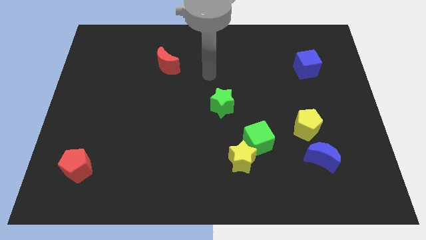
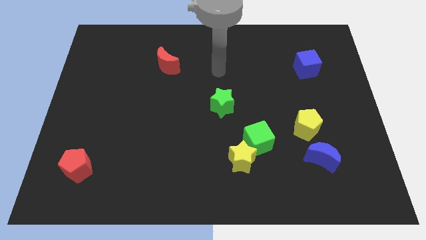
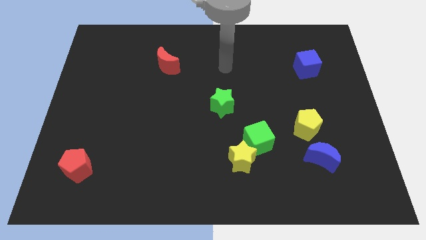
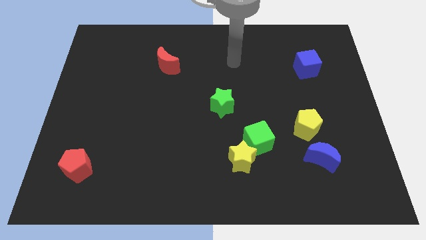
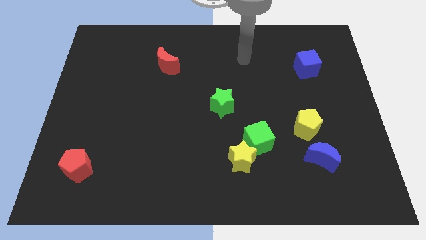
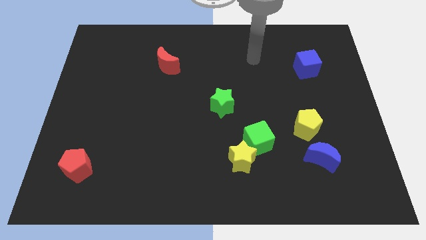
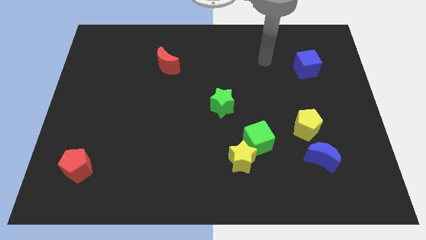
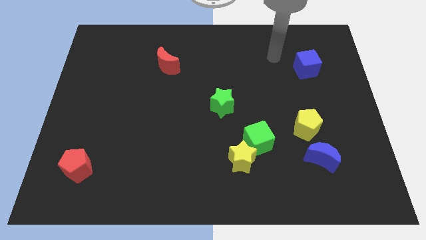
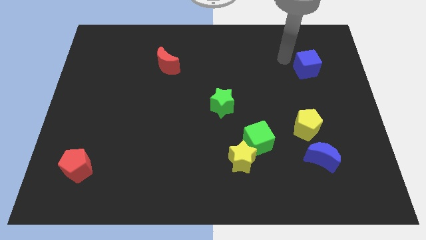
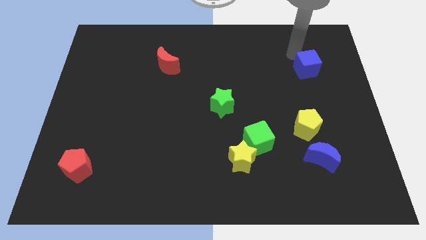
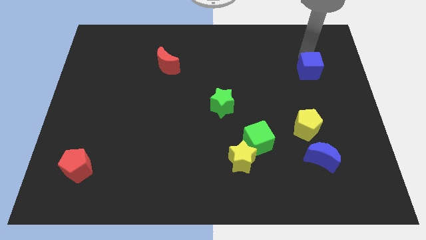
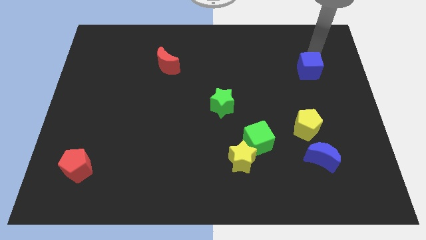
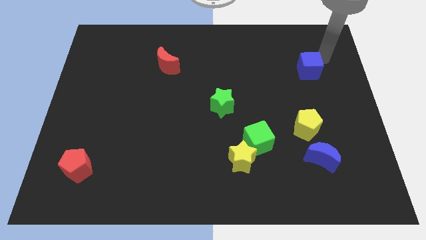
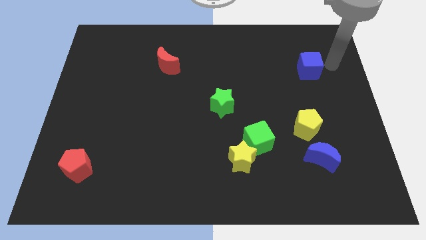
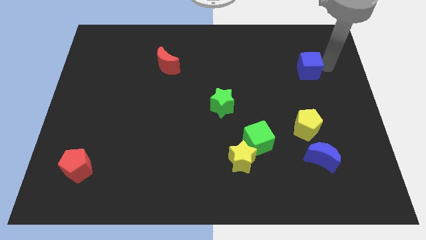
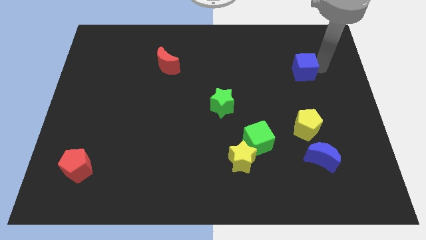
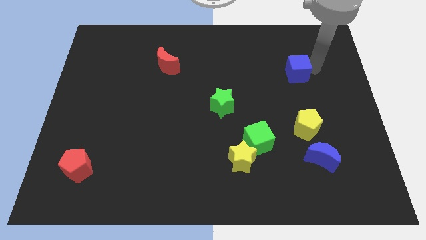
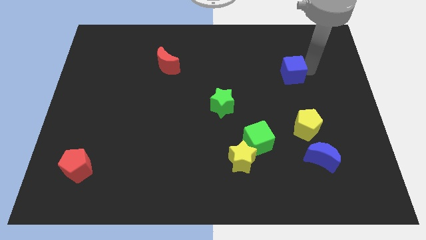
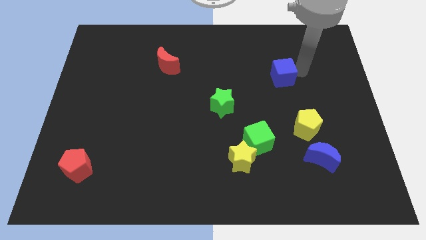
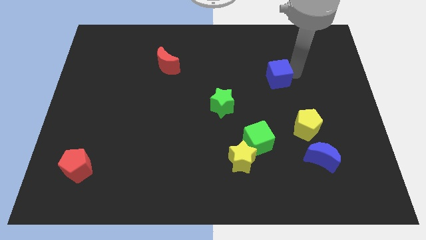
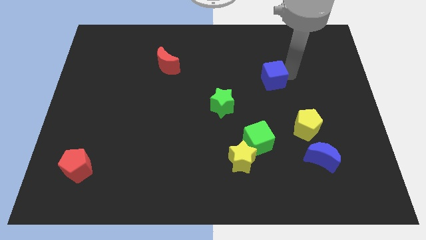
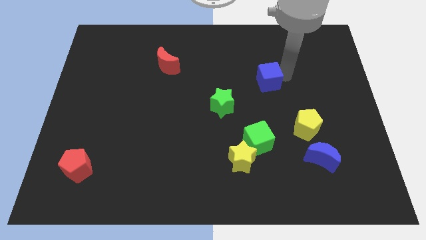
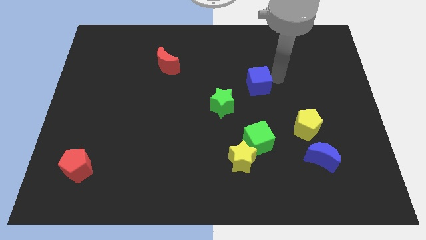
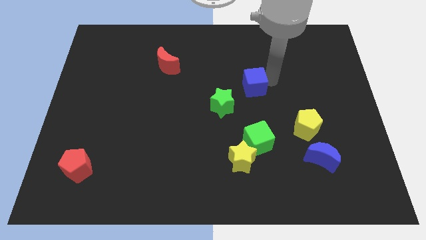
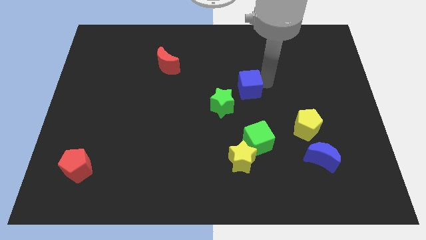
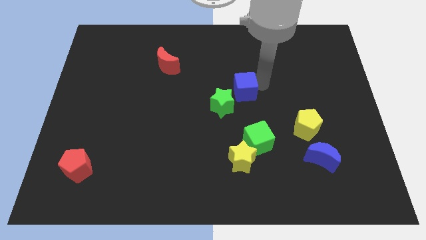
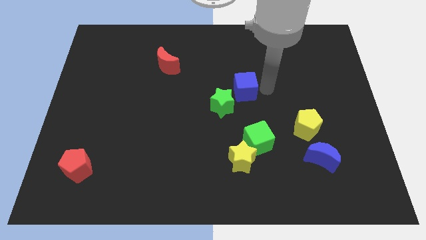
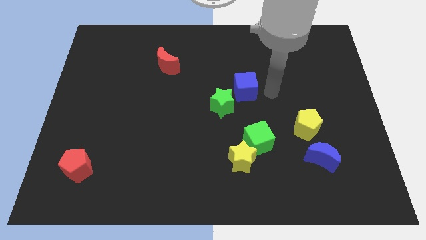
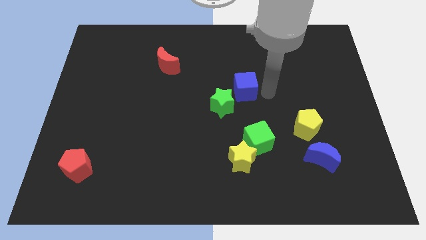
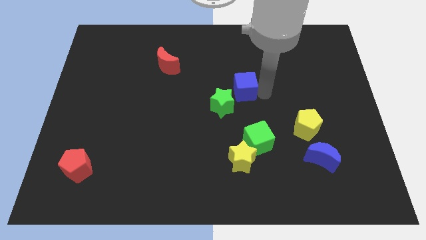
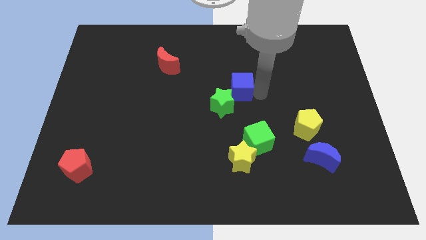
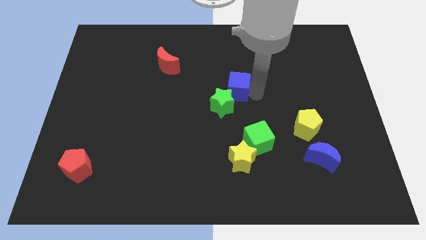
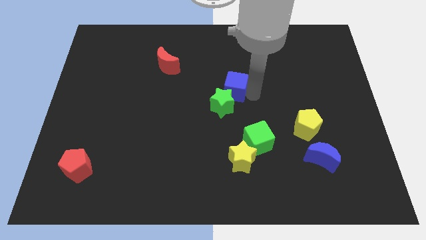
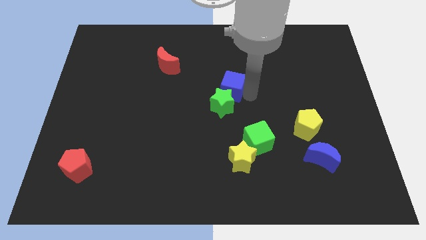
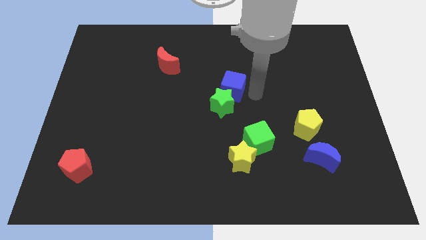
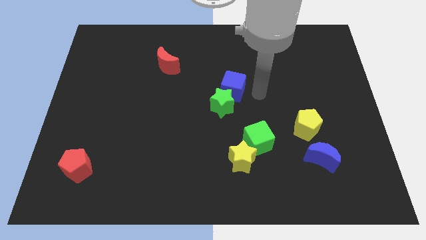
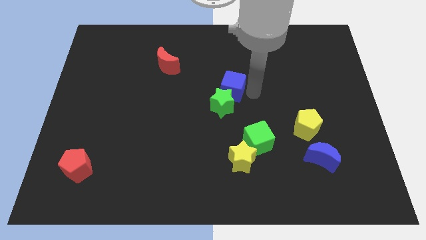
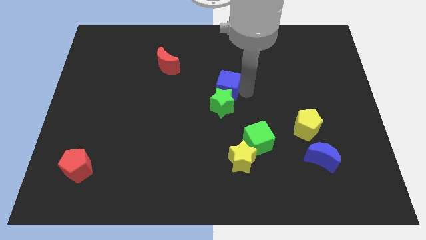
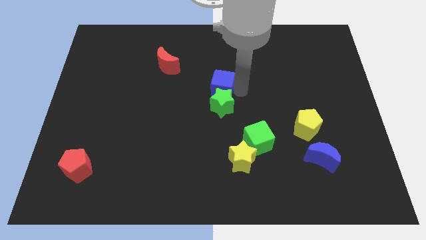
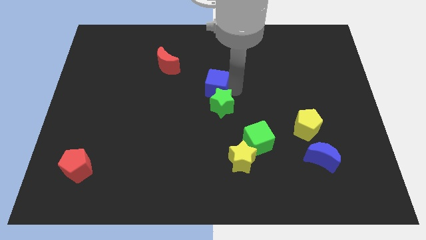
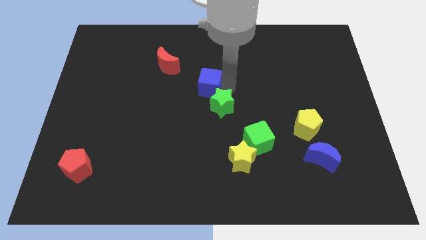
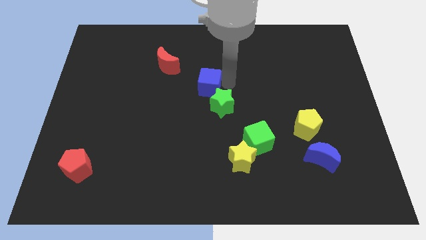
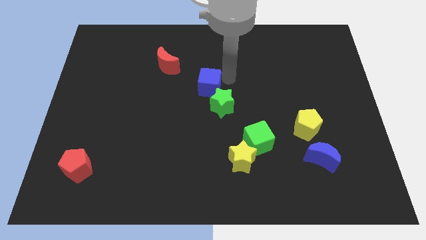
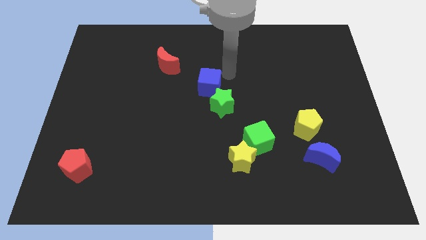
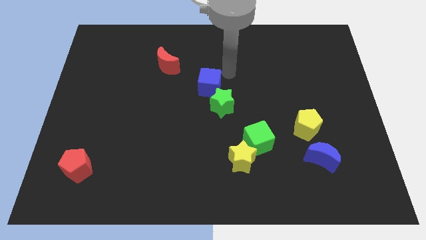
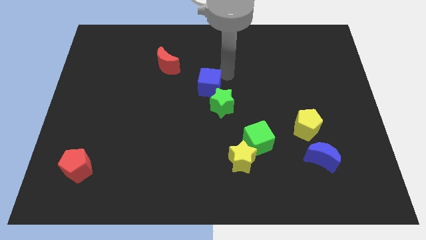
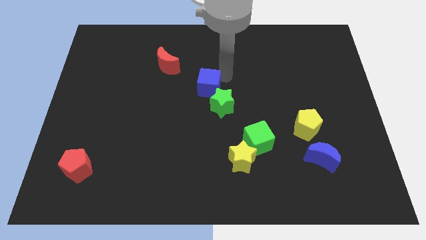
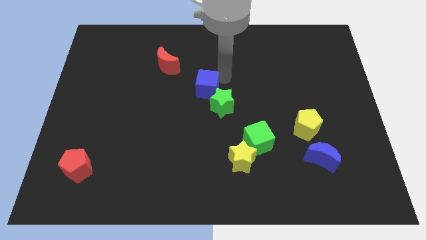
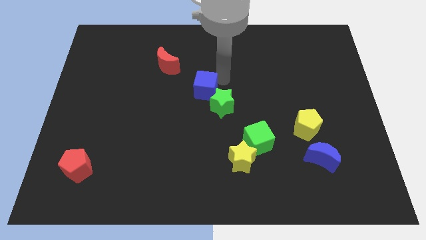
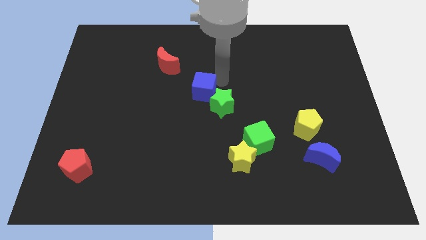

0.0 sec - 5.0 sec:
slide the blue cube to the left side of the green star

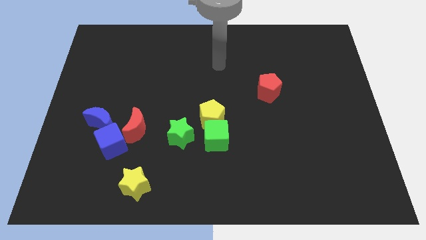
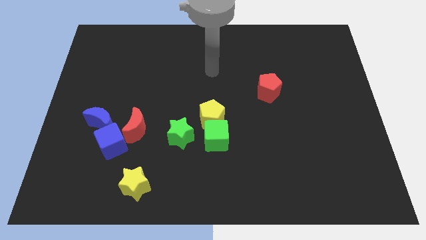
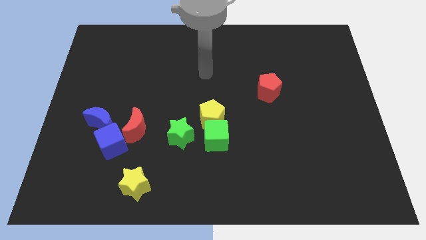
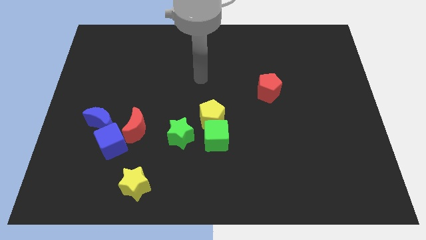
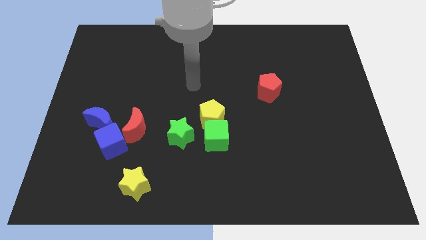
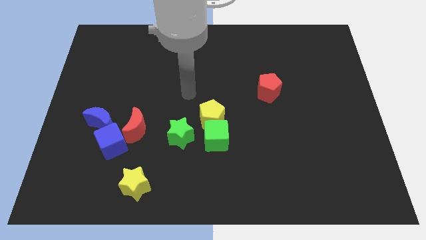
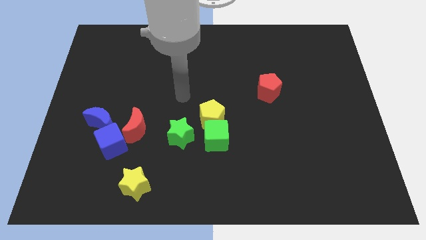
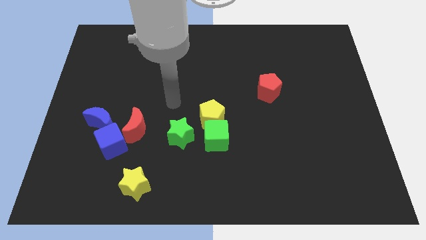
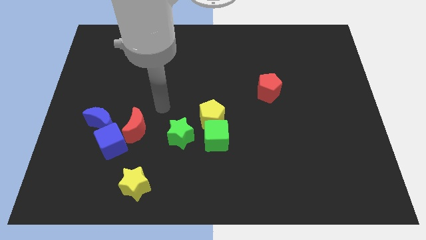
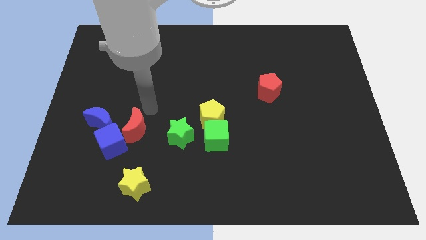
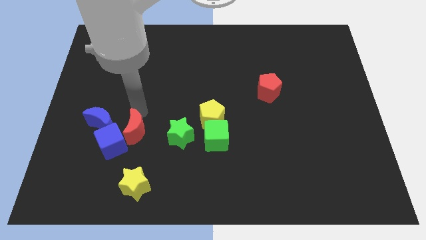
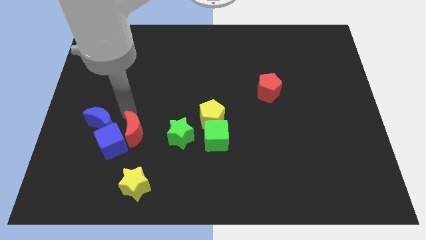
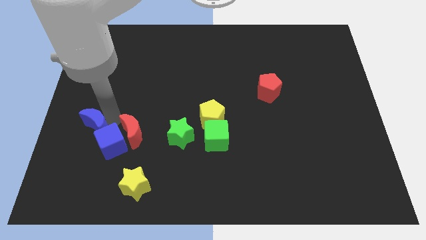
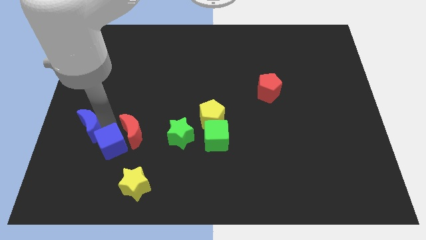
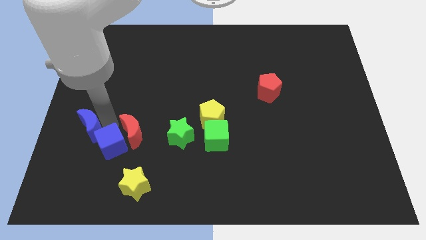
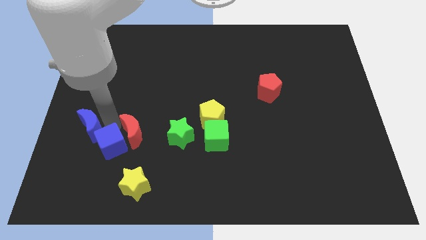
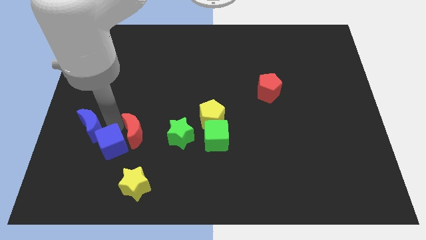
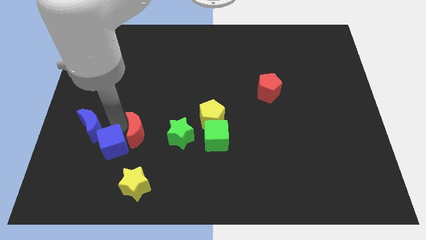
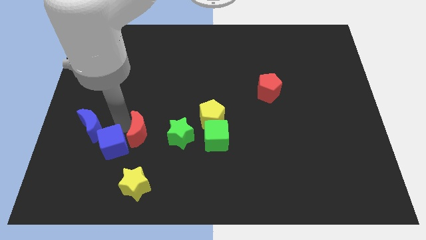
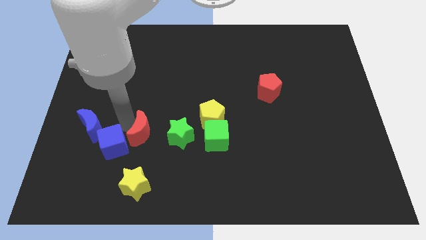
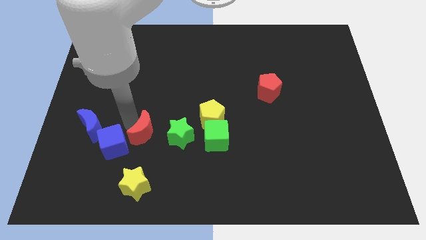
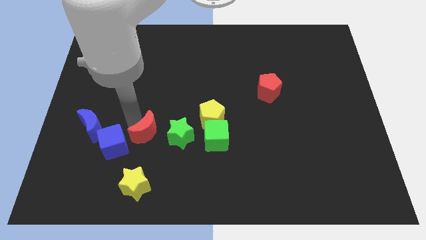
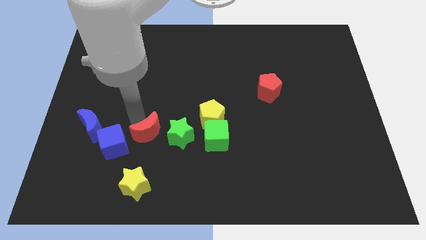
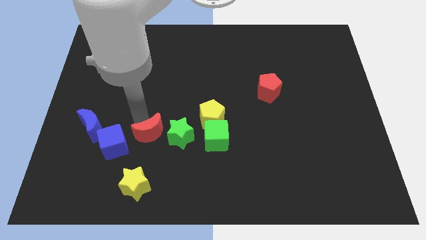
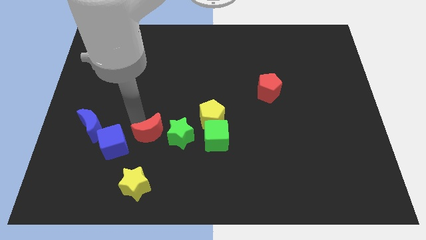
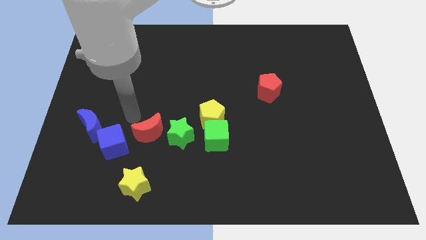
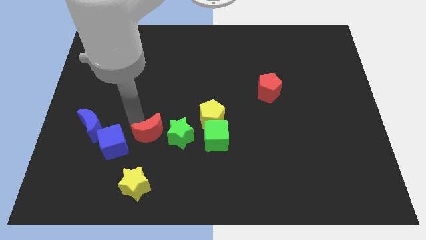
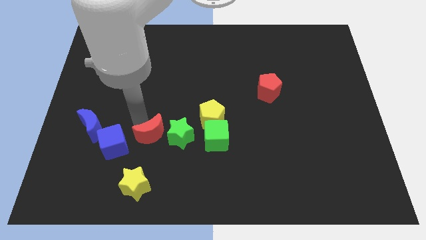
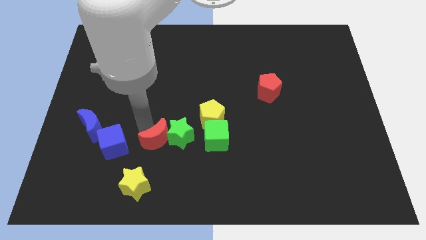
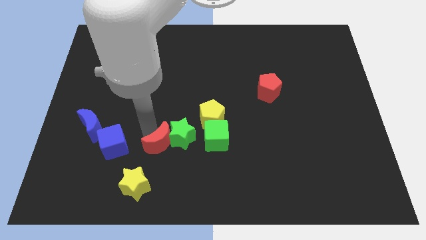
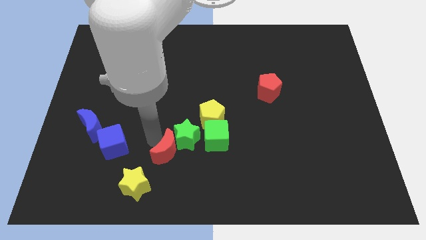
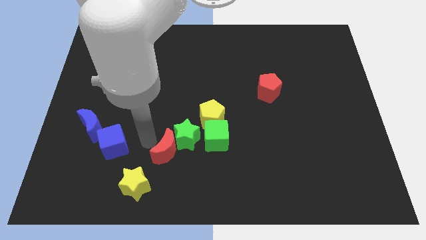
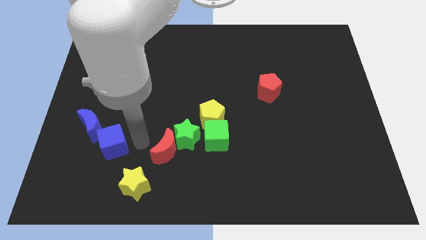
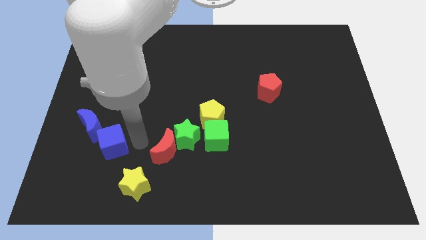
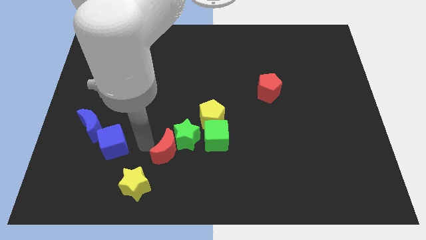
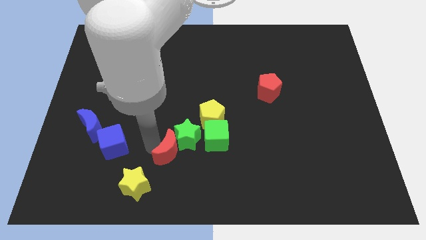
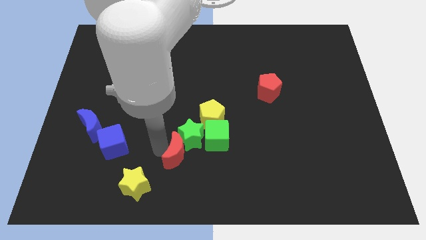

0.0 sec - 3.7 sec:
push the red moon to the bottom left of the green cube
